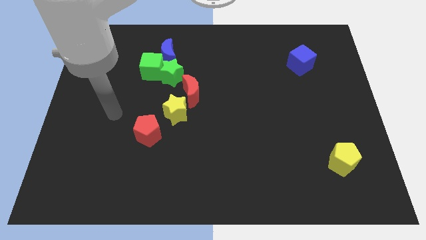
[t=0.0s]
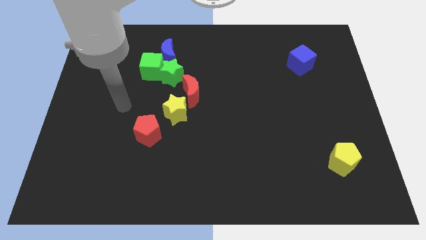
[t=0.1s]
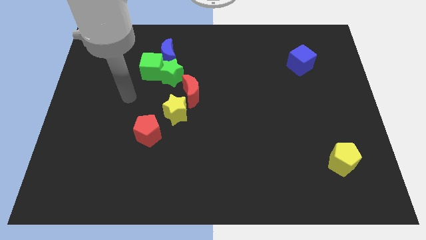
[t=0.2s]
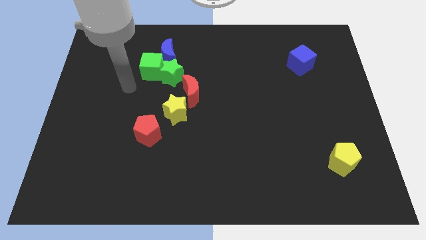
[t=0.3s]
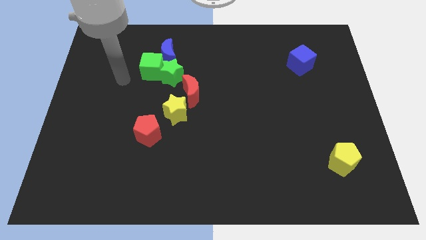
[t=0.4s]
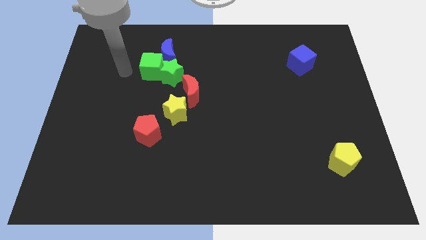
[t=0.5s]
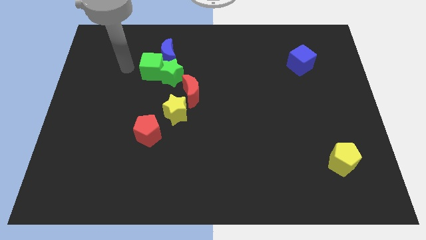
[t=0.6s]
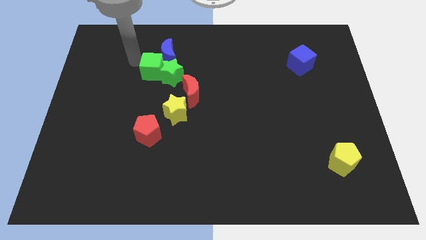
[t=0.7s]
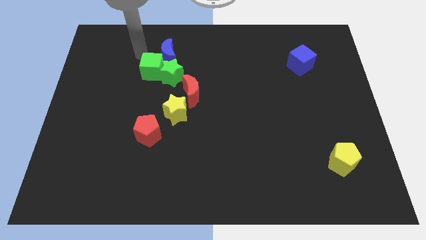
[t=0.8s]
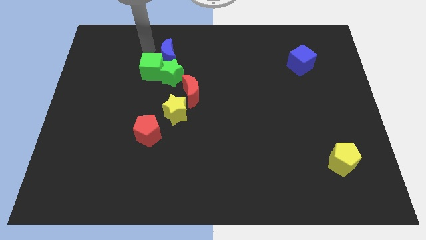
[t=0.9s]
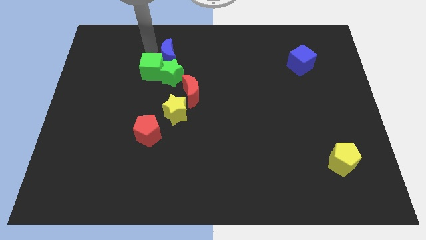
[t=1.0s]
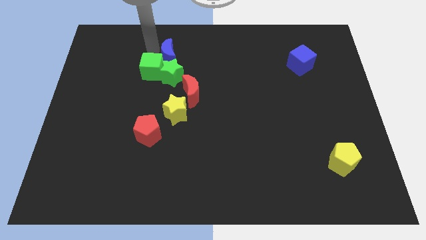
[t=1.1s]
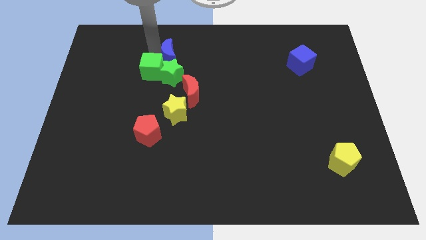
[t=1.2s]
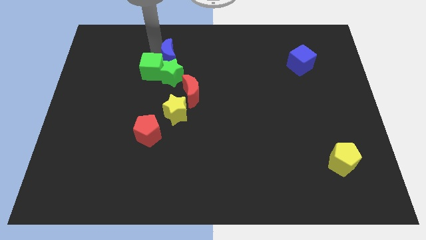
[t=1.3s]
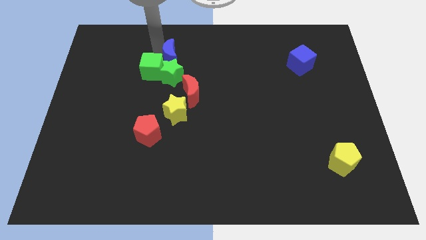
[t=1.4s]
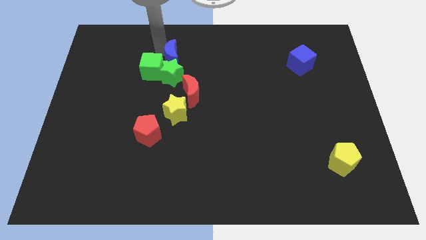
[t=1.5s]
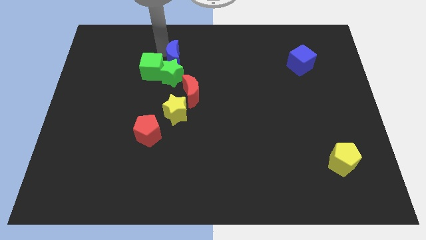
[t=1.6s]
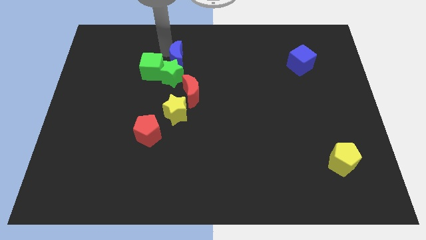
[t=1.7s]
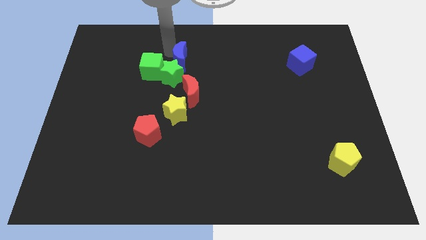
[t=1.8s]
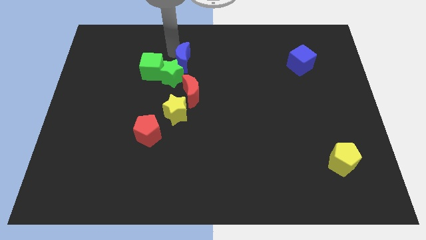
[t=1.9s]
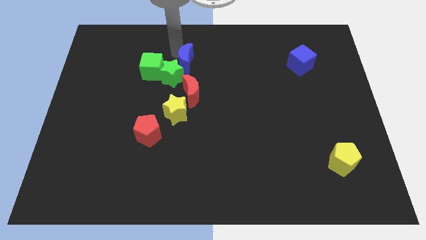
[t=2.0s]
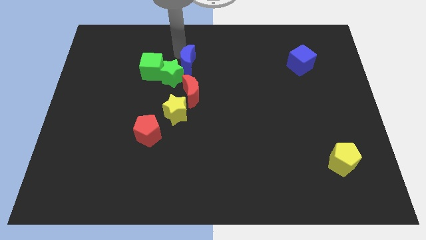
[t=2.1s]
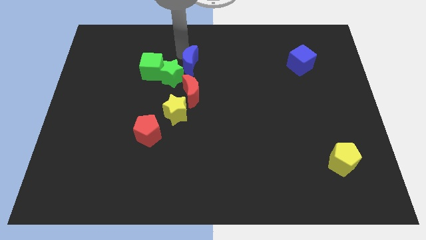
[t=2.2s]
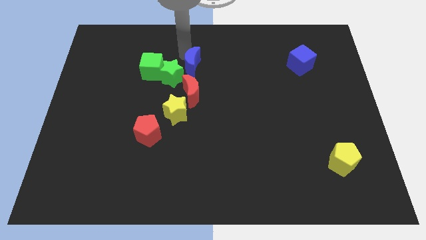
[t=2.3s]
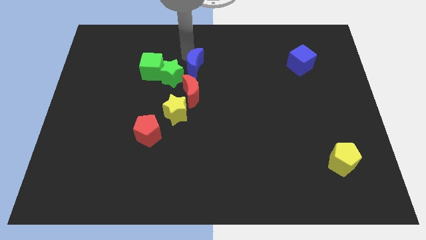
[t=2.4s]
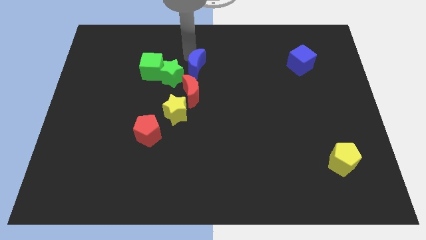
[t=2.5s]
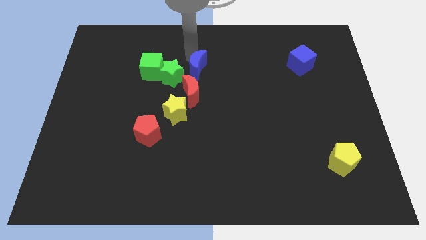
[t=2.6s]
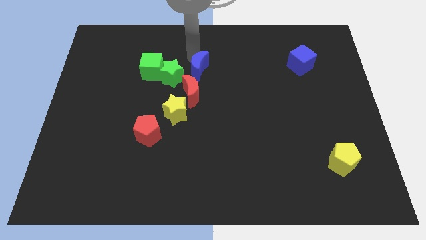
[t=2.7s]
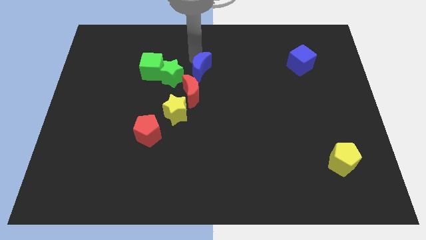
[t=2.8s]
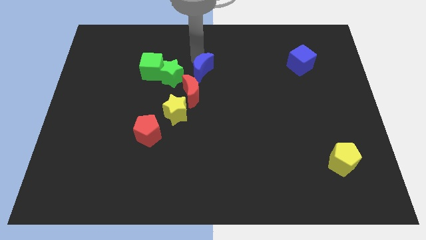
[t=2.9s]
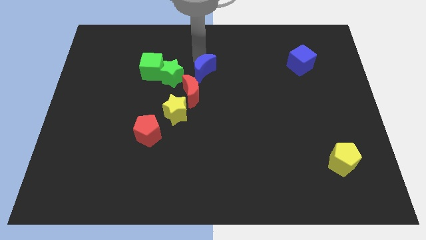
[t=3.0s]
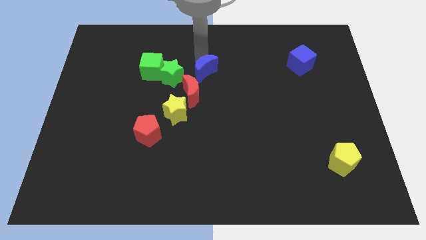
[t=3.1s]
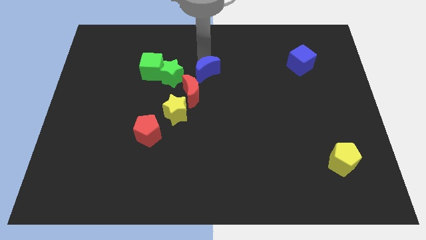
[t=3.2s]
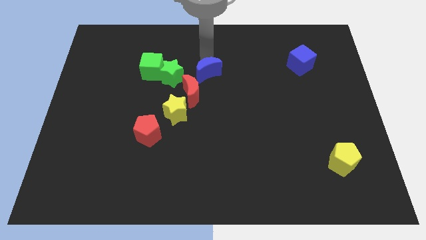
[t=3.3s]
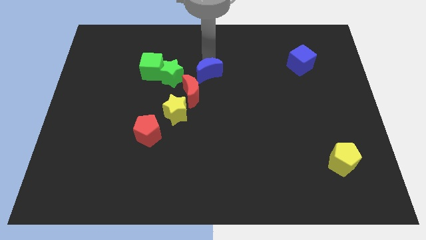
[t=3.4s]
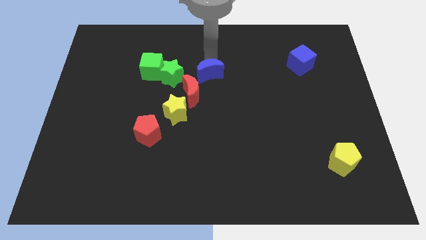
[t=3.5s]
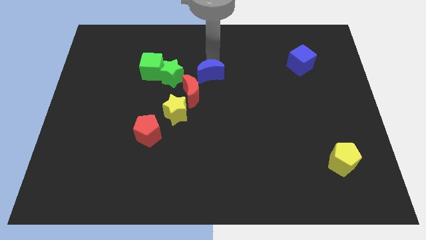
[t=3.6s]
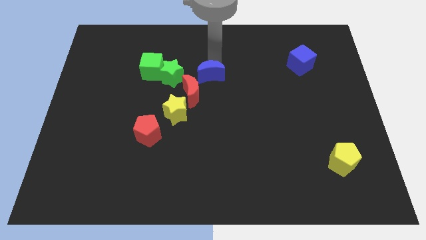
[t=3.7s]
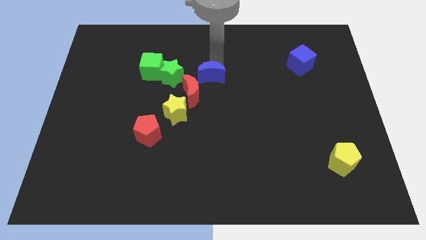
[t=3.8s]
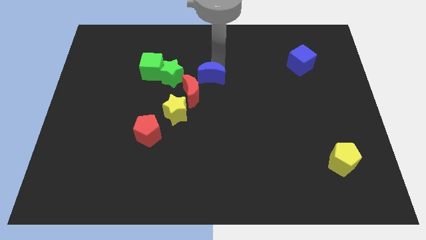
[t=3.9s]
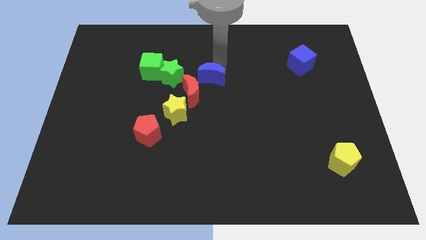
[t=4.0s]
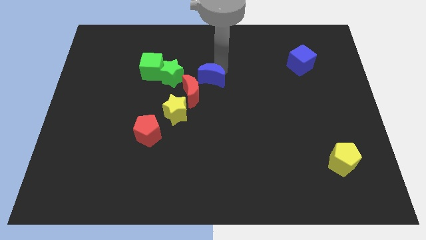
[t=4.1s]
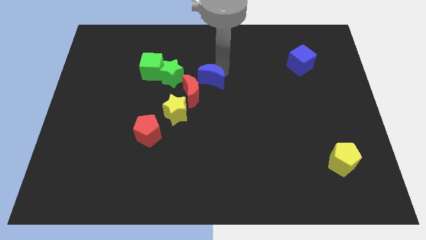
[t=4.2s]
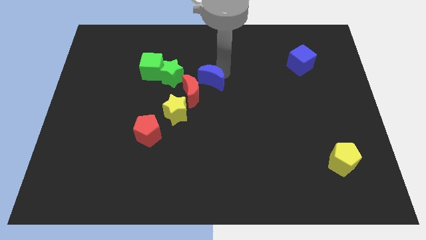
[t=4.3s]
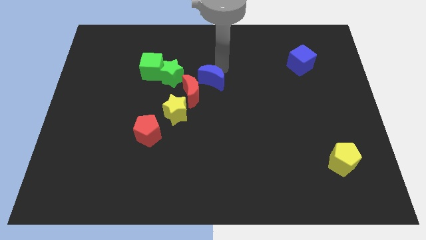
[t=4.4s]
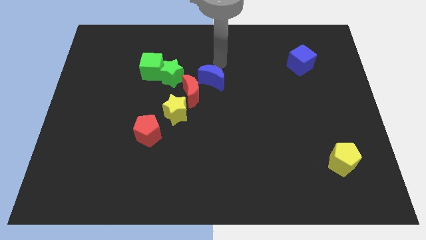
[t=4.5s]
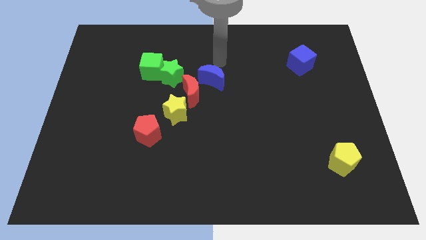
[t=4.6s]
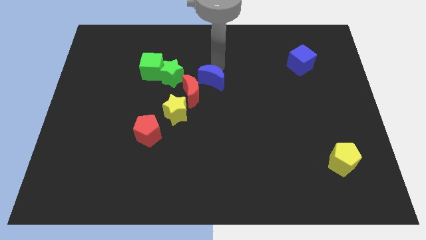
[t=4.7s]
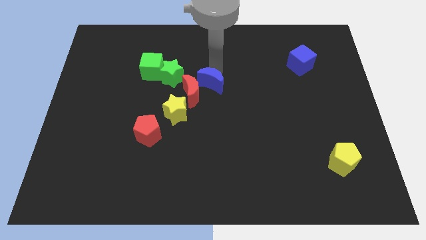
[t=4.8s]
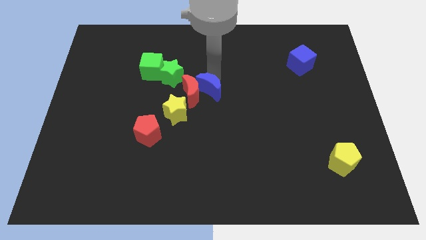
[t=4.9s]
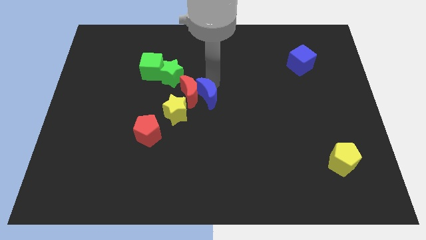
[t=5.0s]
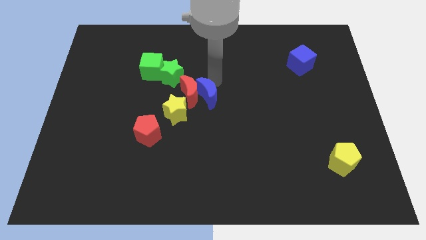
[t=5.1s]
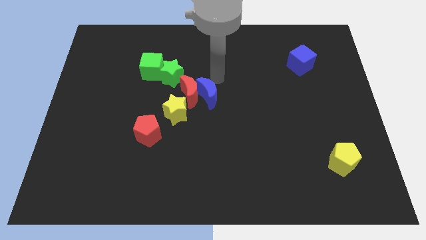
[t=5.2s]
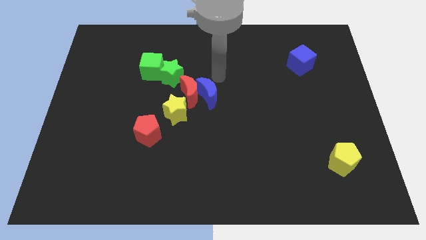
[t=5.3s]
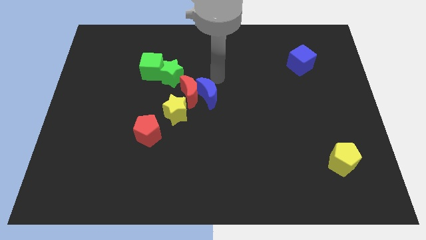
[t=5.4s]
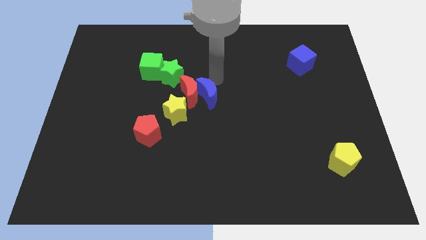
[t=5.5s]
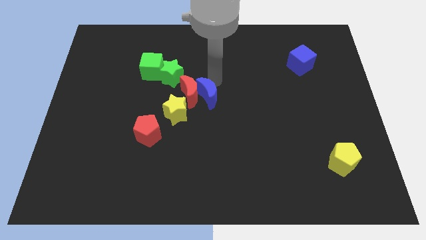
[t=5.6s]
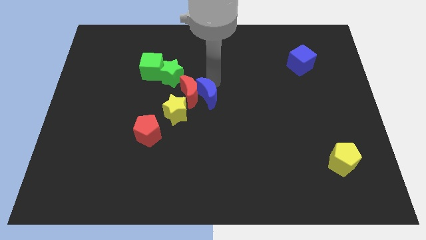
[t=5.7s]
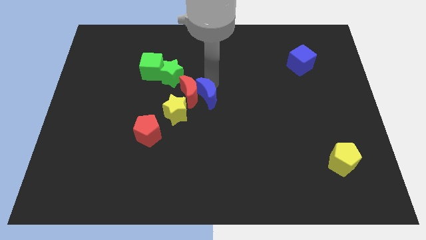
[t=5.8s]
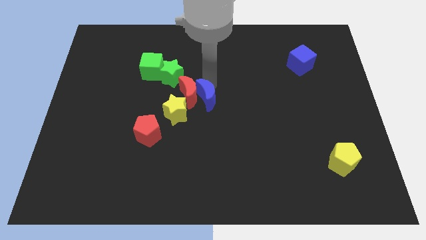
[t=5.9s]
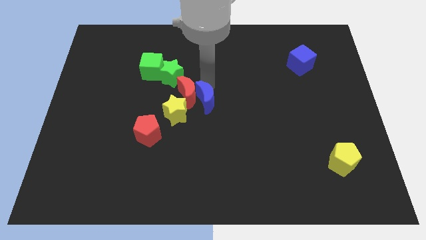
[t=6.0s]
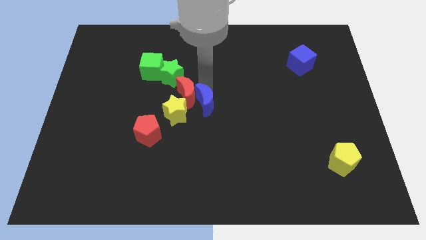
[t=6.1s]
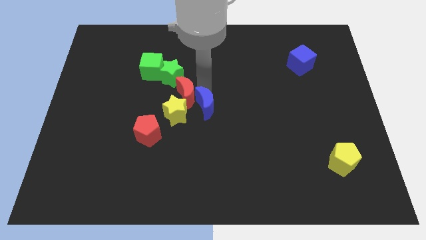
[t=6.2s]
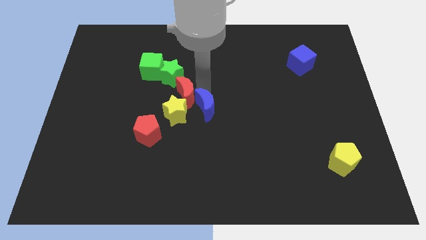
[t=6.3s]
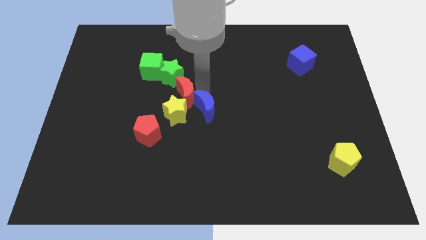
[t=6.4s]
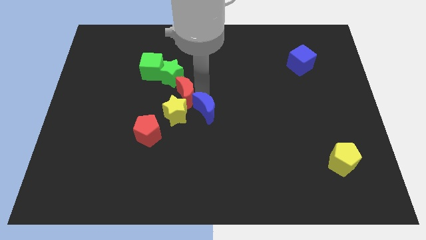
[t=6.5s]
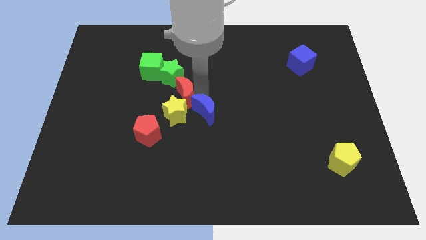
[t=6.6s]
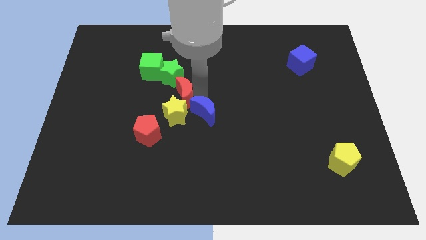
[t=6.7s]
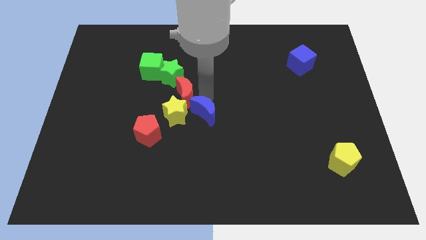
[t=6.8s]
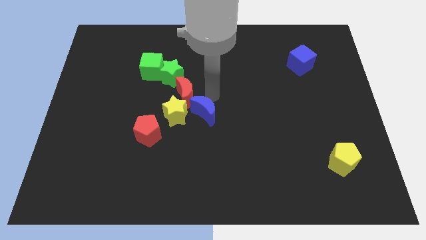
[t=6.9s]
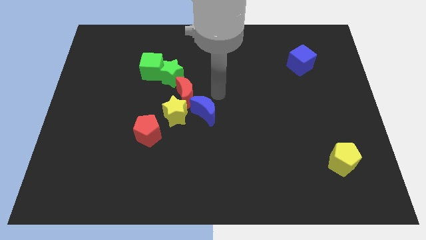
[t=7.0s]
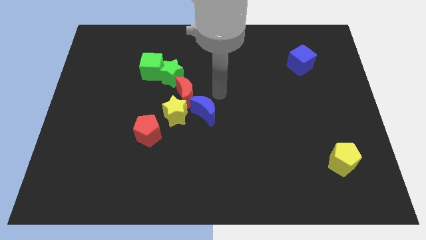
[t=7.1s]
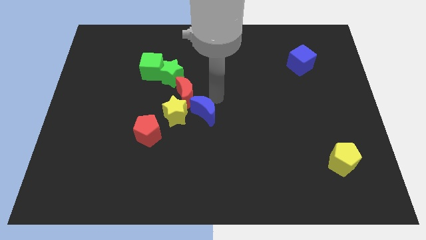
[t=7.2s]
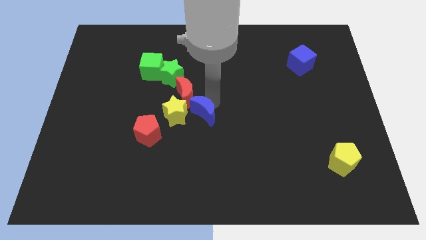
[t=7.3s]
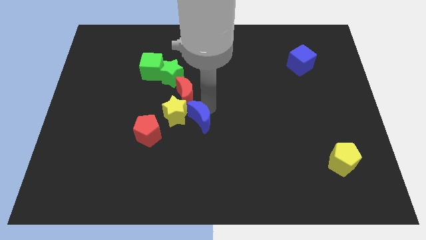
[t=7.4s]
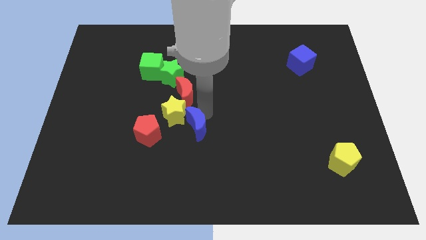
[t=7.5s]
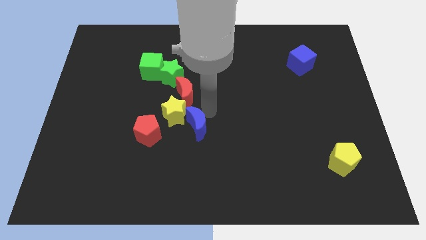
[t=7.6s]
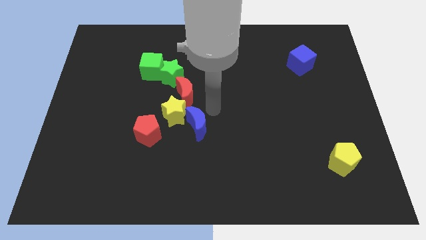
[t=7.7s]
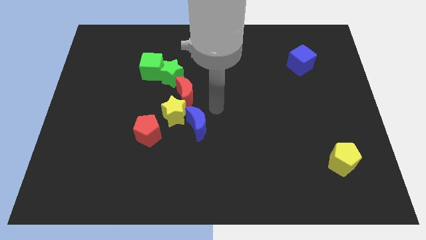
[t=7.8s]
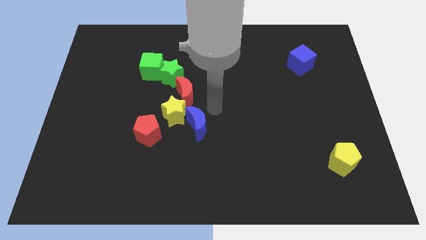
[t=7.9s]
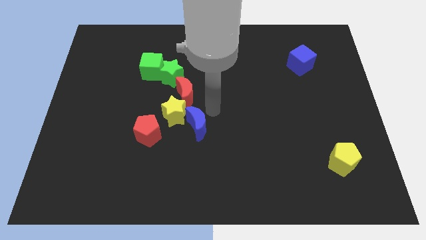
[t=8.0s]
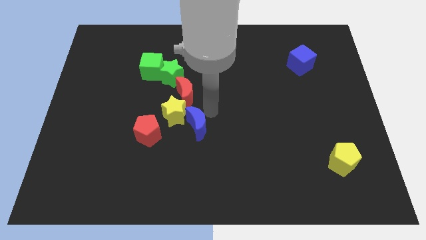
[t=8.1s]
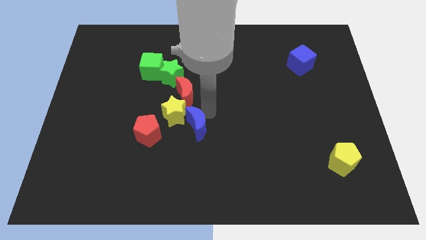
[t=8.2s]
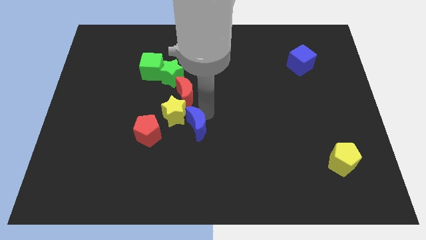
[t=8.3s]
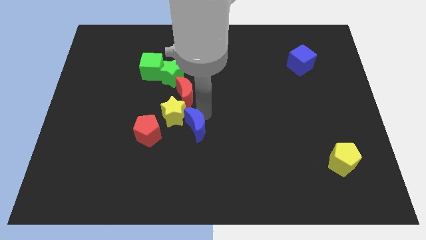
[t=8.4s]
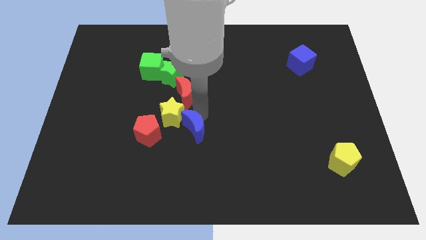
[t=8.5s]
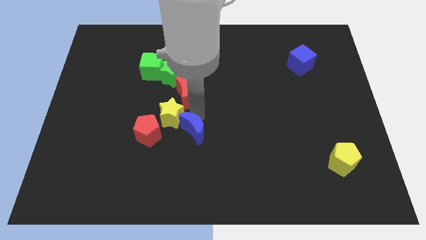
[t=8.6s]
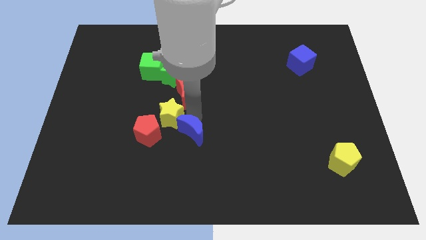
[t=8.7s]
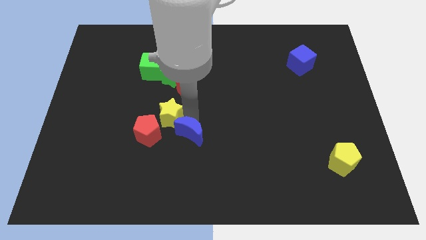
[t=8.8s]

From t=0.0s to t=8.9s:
slide the blue moon below the yellow star
